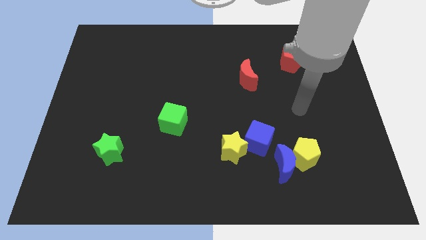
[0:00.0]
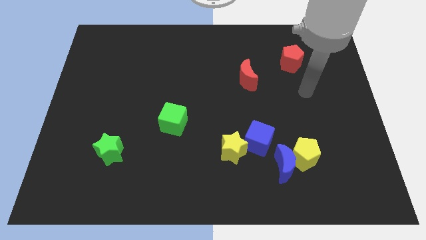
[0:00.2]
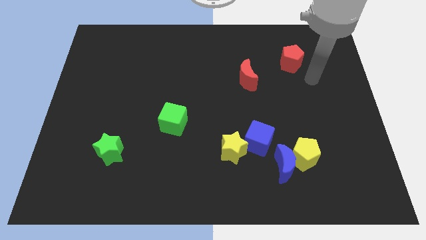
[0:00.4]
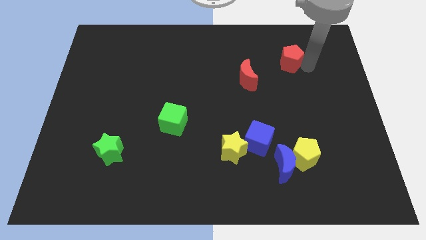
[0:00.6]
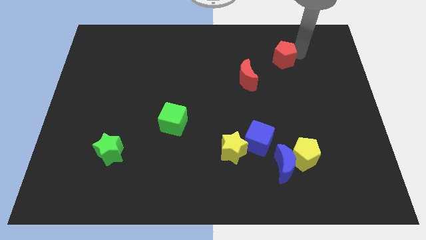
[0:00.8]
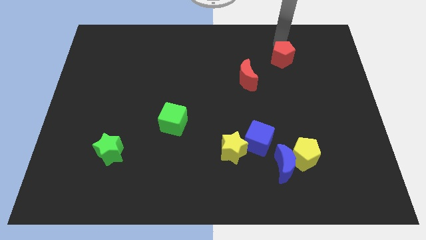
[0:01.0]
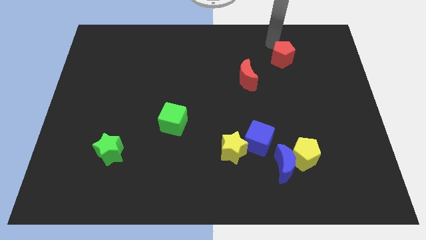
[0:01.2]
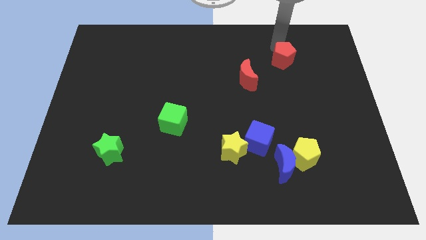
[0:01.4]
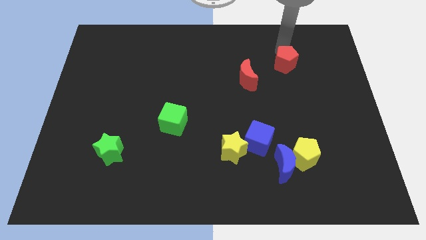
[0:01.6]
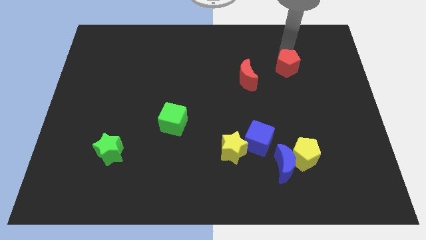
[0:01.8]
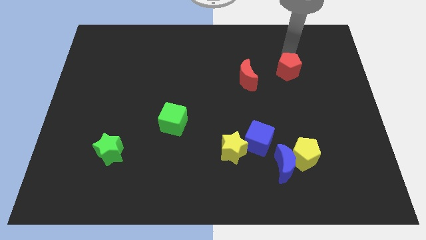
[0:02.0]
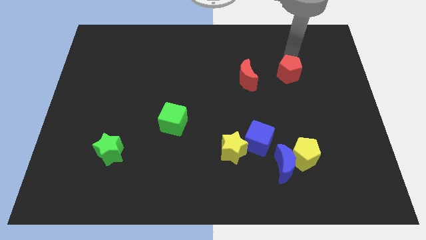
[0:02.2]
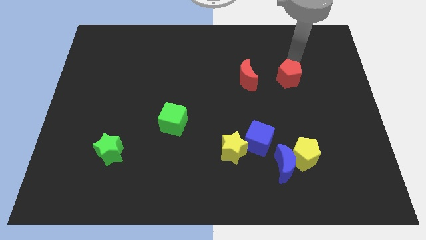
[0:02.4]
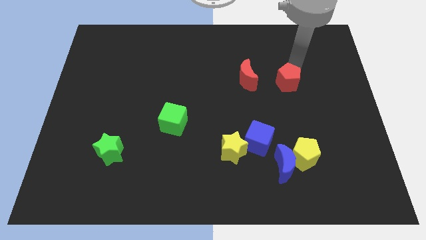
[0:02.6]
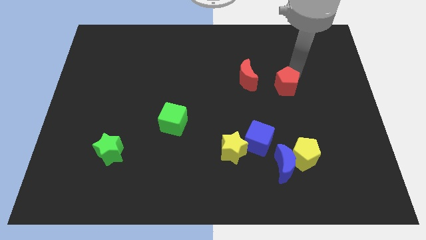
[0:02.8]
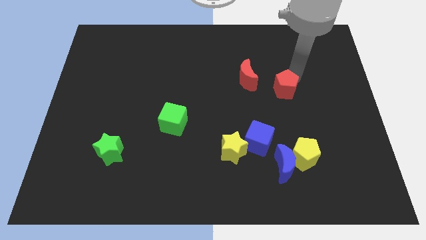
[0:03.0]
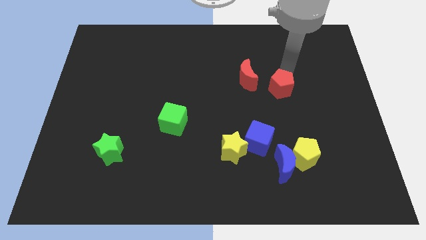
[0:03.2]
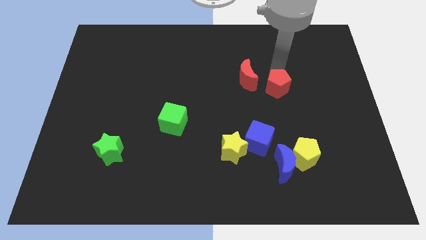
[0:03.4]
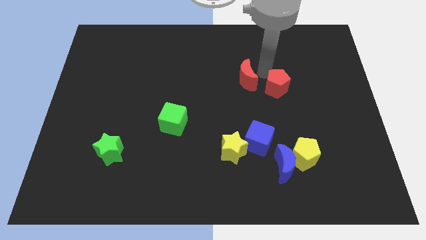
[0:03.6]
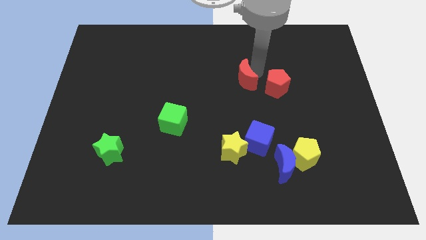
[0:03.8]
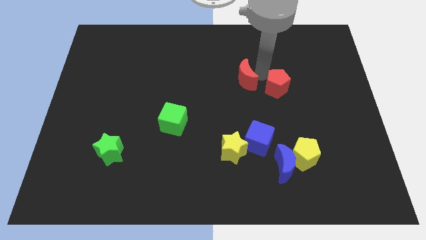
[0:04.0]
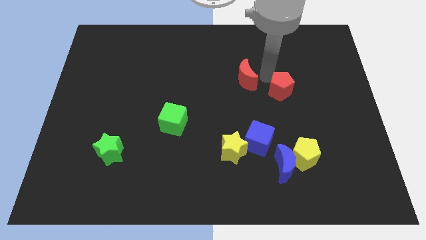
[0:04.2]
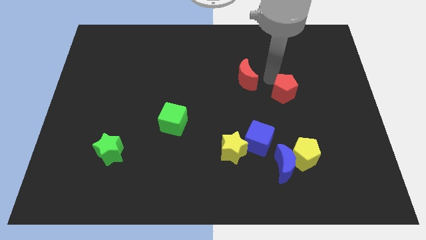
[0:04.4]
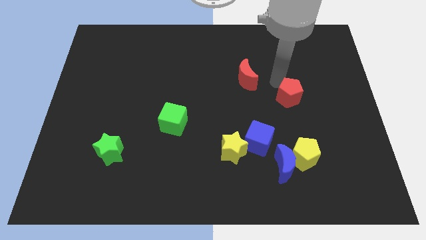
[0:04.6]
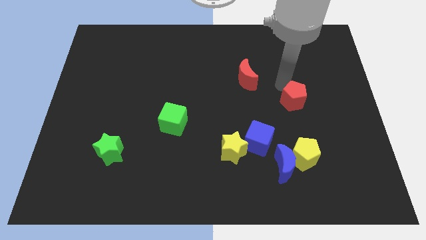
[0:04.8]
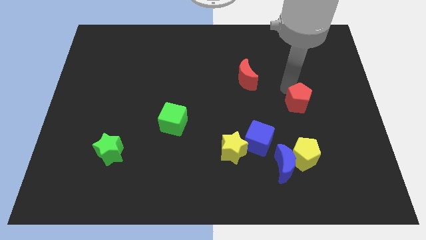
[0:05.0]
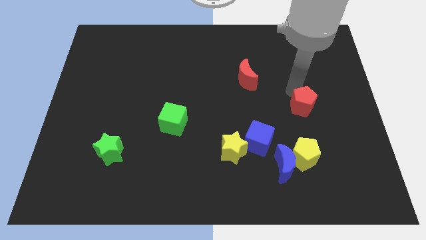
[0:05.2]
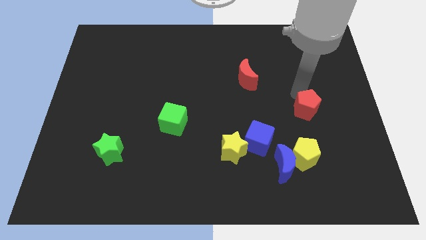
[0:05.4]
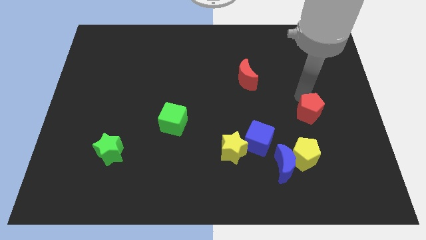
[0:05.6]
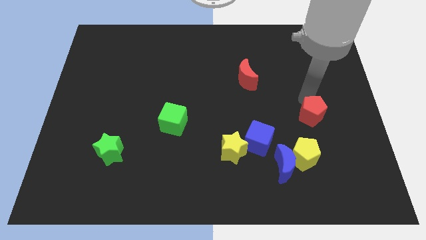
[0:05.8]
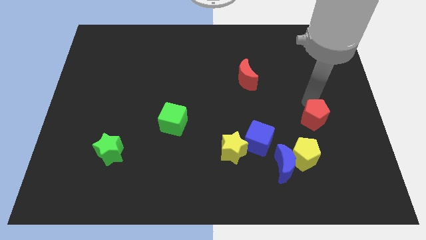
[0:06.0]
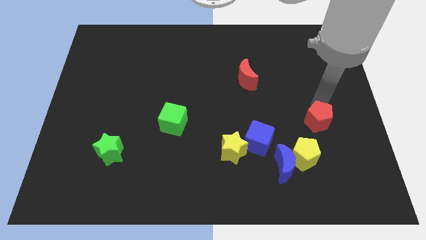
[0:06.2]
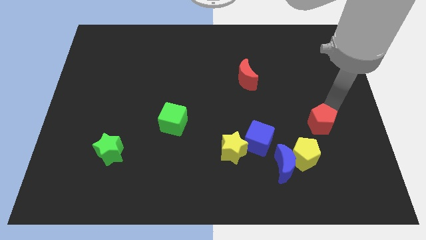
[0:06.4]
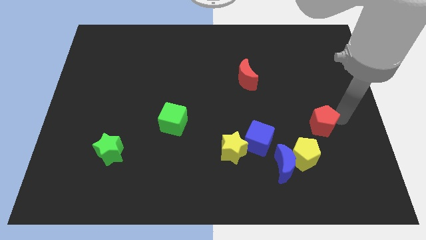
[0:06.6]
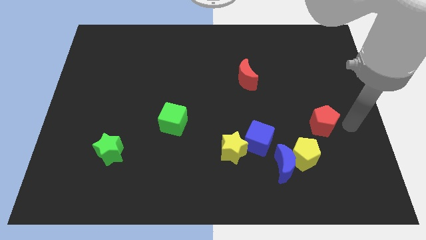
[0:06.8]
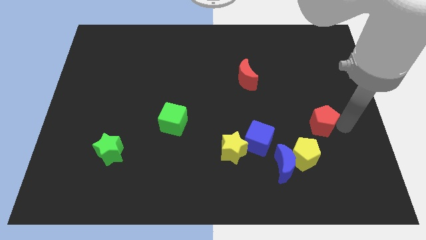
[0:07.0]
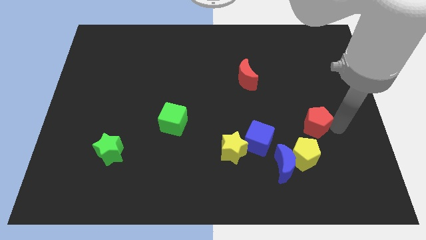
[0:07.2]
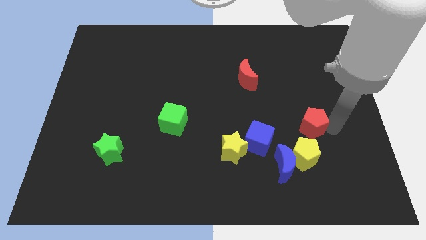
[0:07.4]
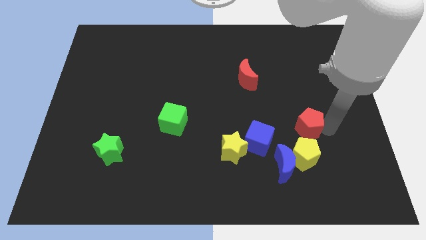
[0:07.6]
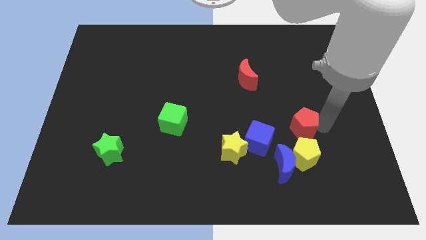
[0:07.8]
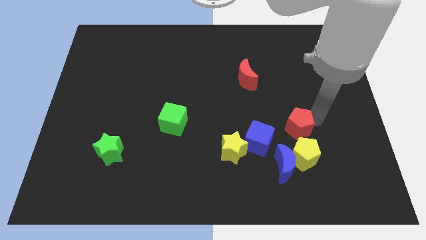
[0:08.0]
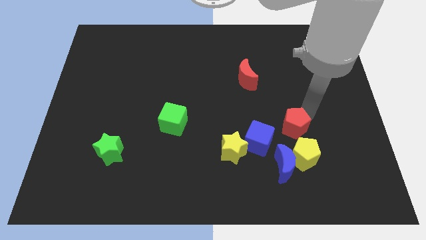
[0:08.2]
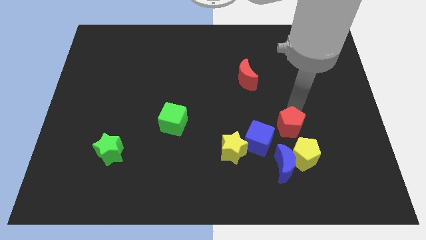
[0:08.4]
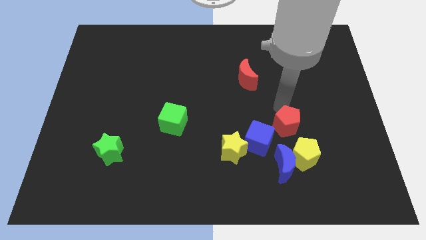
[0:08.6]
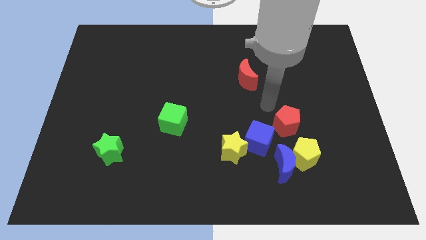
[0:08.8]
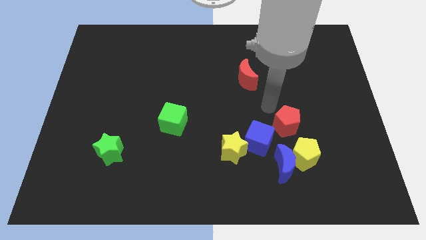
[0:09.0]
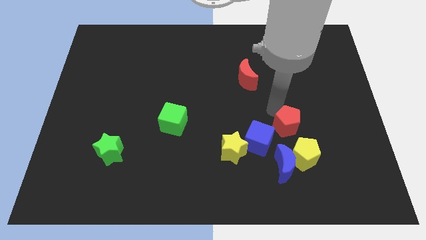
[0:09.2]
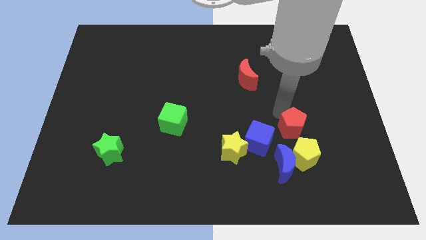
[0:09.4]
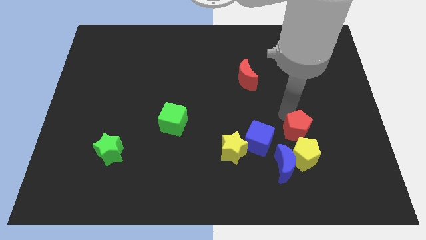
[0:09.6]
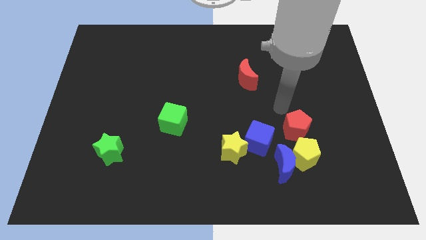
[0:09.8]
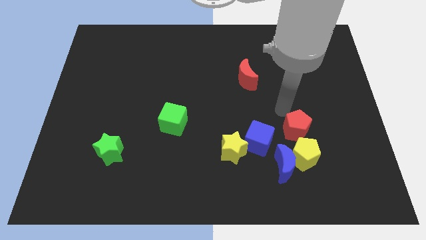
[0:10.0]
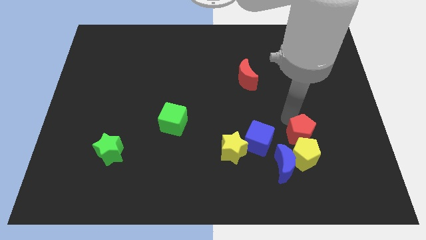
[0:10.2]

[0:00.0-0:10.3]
slide the red pentagon close to the yellow pentagon

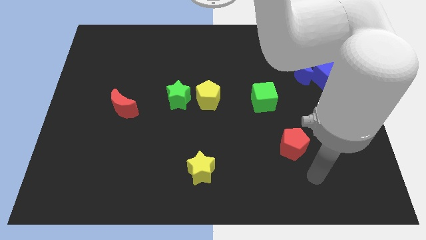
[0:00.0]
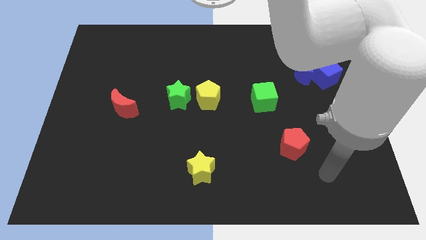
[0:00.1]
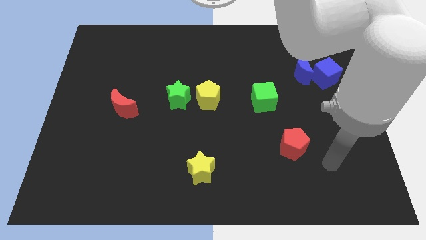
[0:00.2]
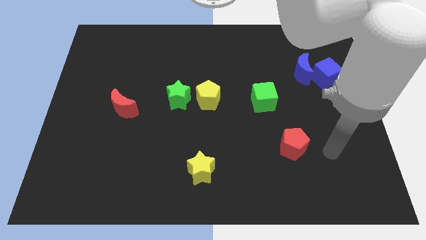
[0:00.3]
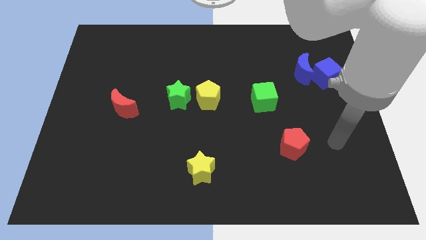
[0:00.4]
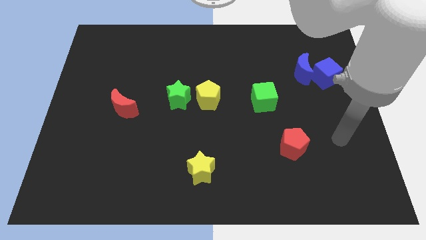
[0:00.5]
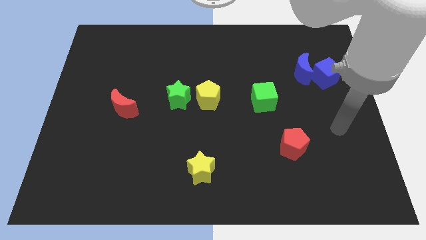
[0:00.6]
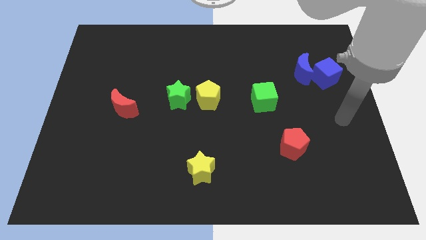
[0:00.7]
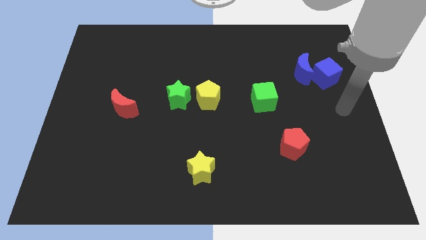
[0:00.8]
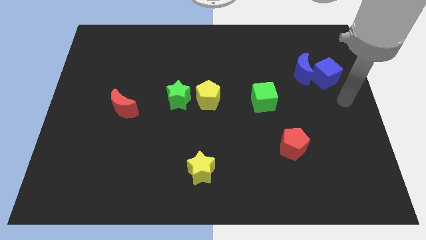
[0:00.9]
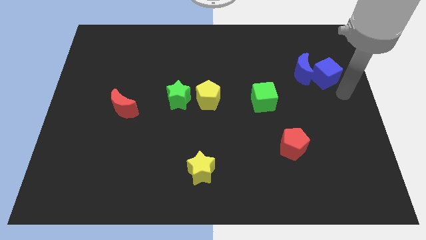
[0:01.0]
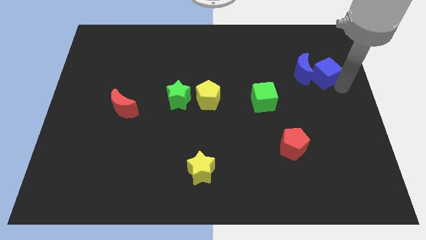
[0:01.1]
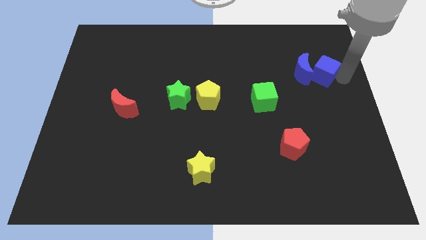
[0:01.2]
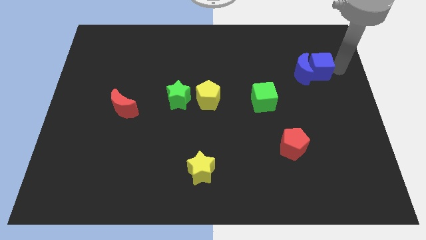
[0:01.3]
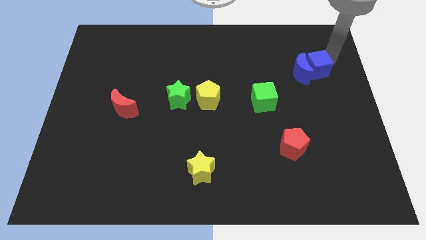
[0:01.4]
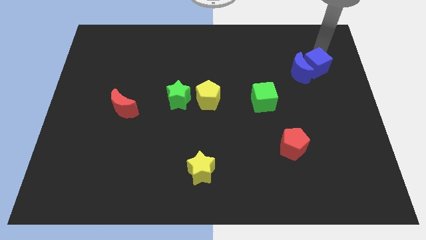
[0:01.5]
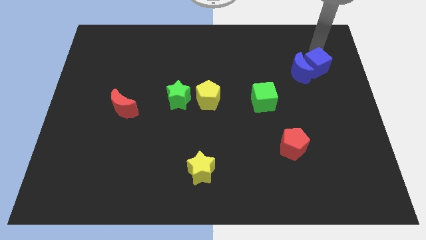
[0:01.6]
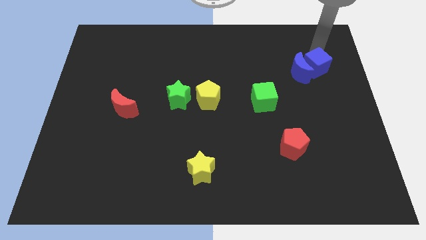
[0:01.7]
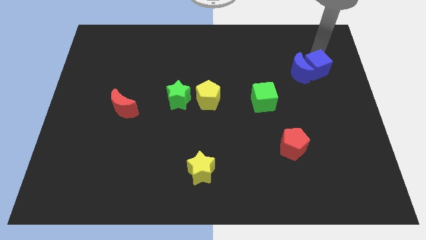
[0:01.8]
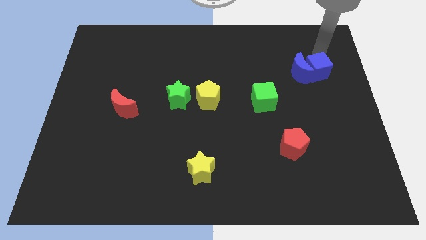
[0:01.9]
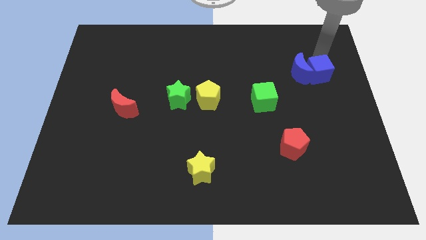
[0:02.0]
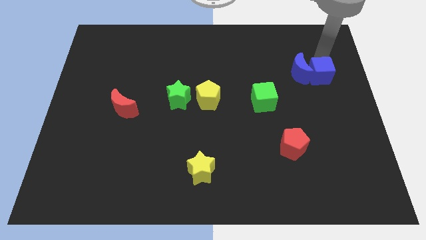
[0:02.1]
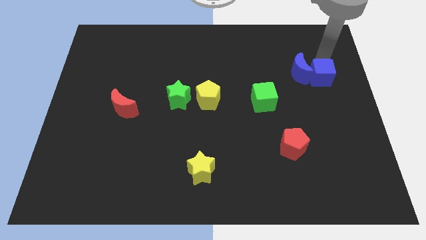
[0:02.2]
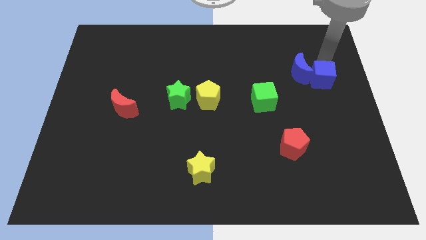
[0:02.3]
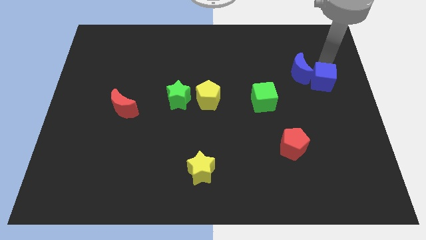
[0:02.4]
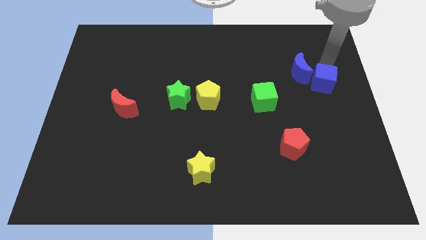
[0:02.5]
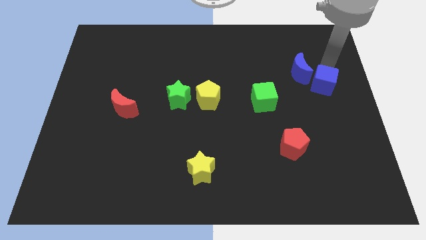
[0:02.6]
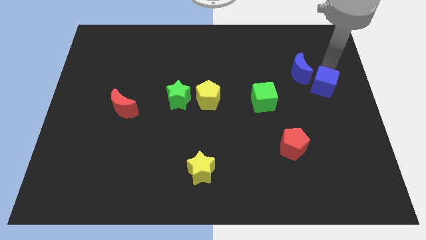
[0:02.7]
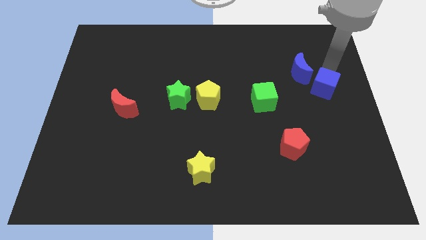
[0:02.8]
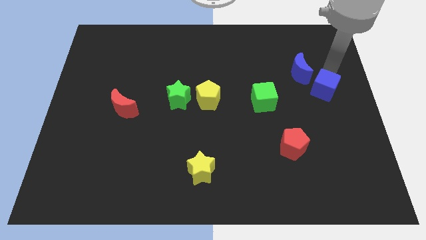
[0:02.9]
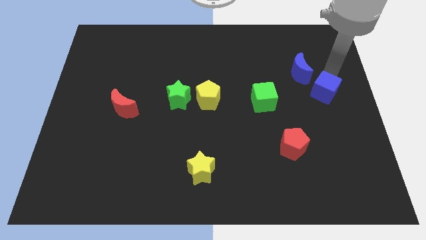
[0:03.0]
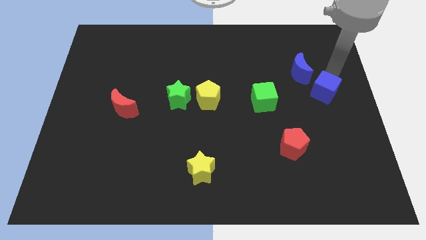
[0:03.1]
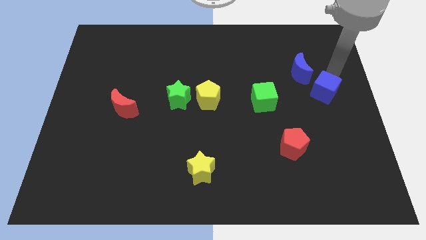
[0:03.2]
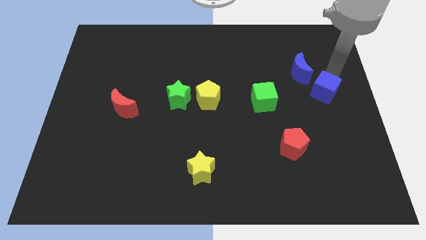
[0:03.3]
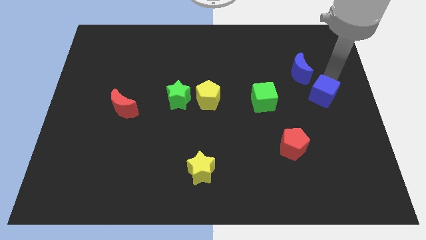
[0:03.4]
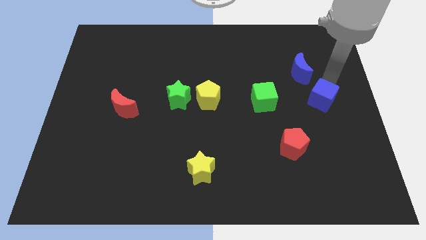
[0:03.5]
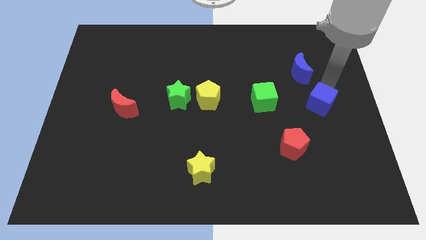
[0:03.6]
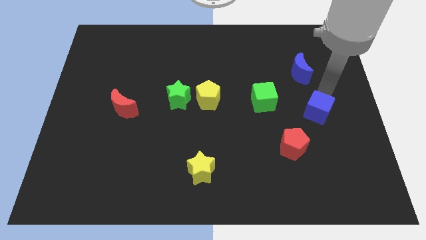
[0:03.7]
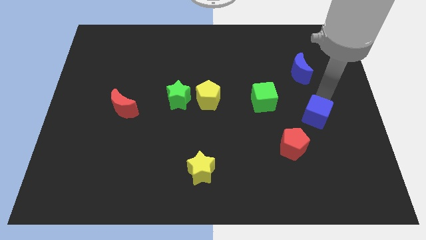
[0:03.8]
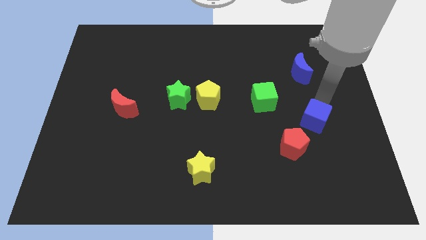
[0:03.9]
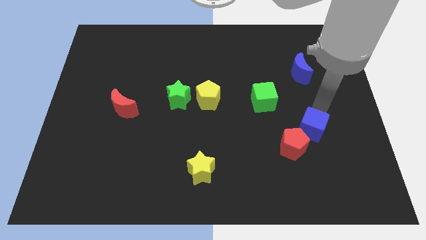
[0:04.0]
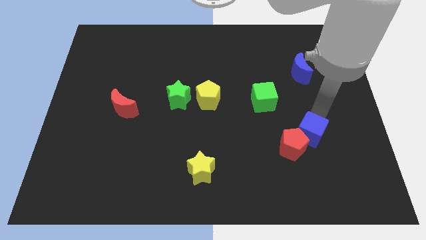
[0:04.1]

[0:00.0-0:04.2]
move the blue cube to the red pentagon
